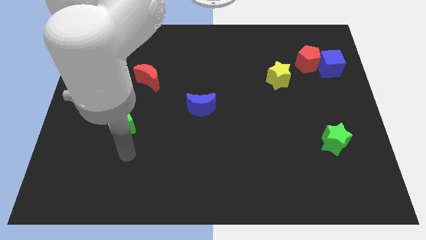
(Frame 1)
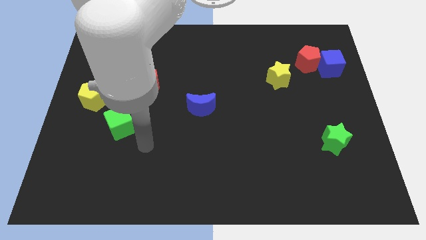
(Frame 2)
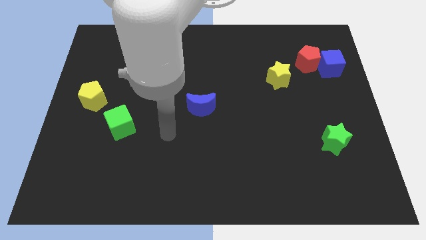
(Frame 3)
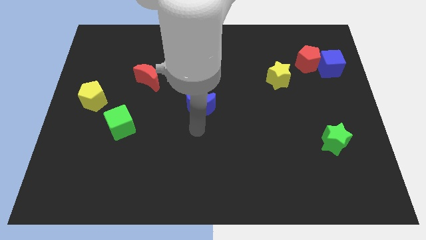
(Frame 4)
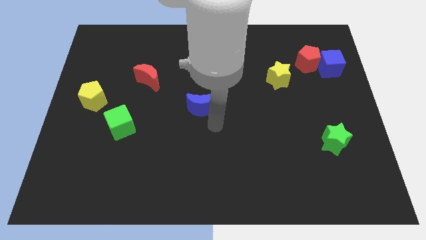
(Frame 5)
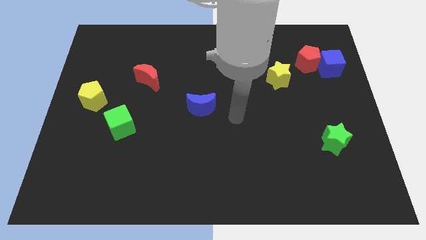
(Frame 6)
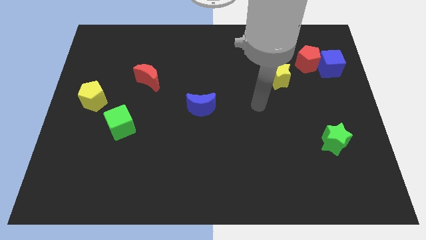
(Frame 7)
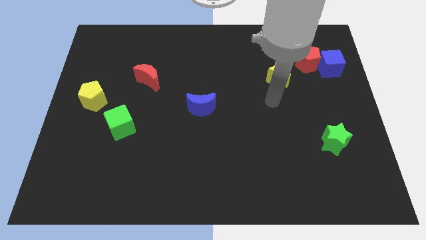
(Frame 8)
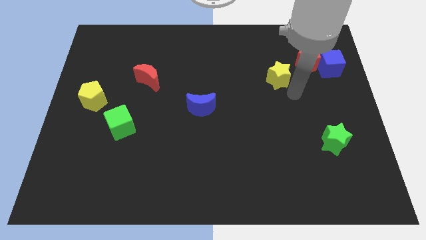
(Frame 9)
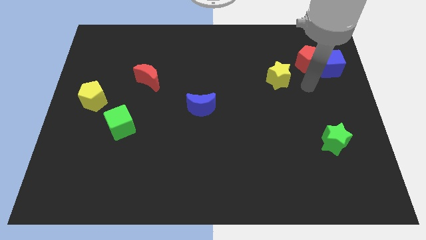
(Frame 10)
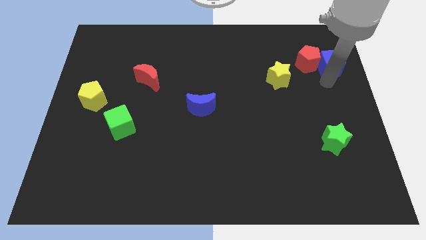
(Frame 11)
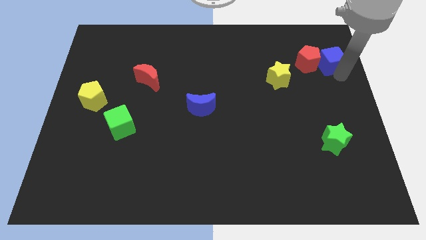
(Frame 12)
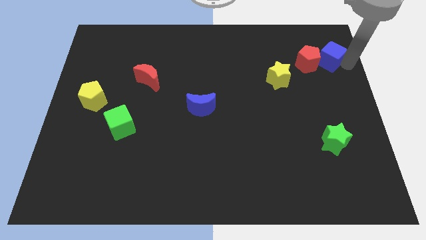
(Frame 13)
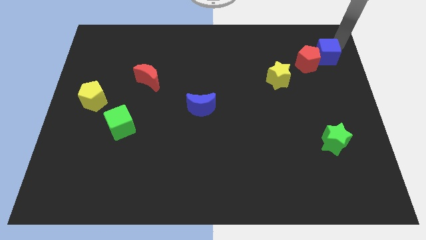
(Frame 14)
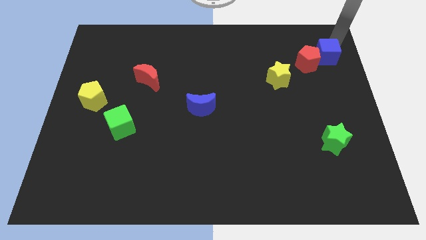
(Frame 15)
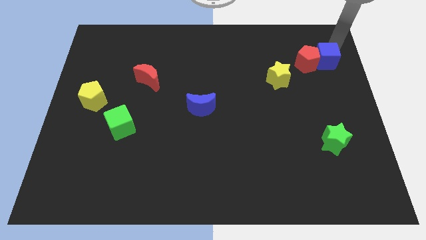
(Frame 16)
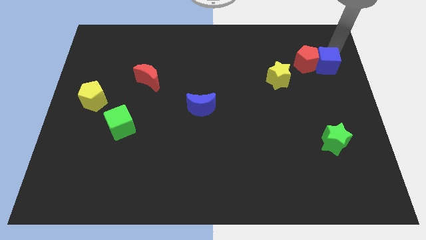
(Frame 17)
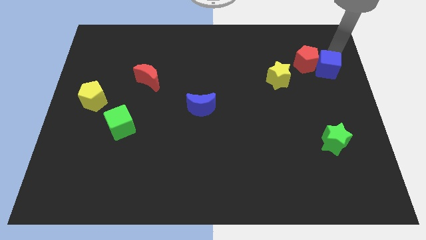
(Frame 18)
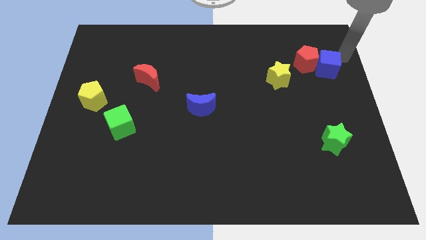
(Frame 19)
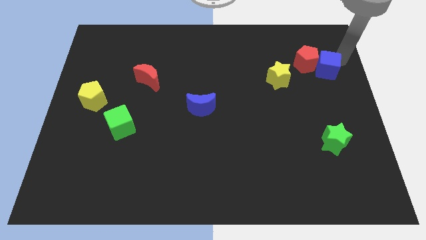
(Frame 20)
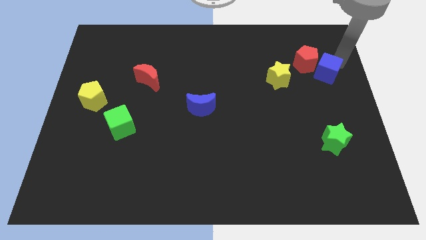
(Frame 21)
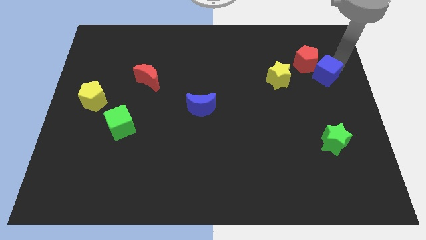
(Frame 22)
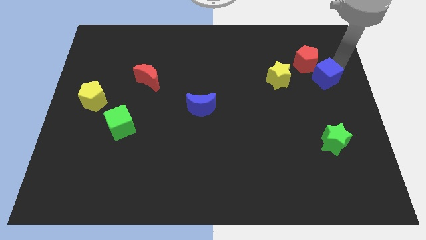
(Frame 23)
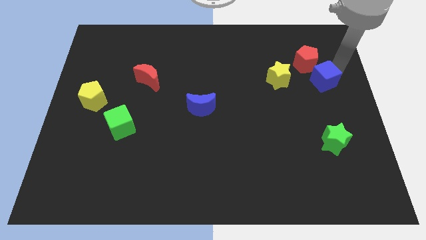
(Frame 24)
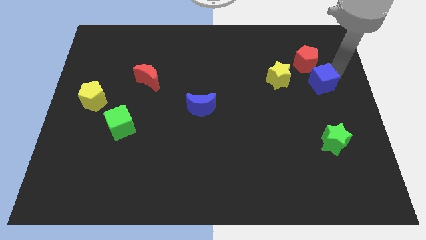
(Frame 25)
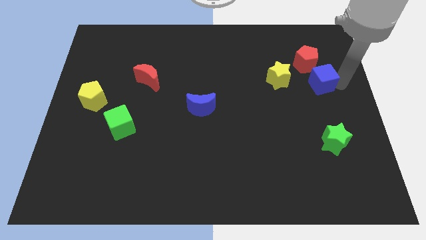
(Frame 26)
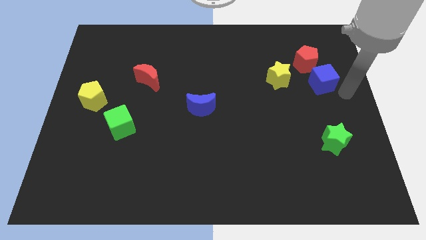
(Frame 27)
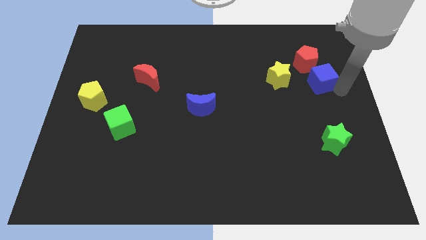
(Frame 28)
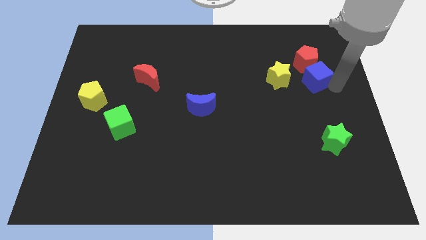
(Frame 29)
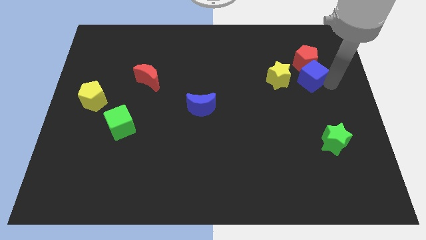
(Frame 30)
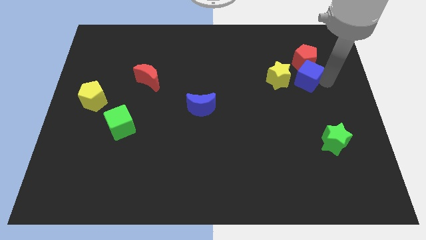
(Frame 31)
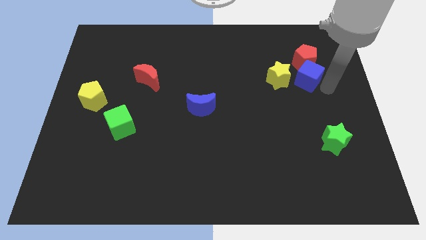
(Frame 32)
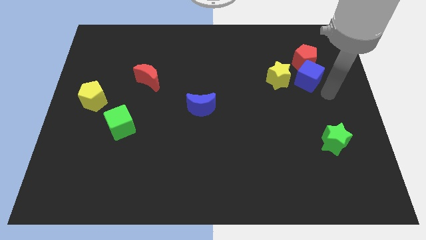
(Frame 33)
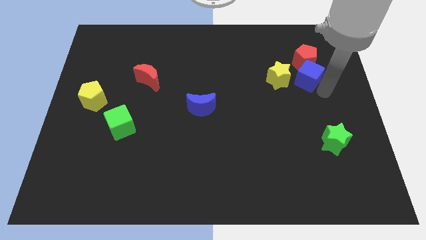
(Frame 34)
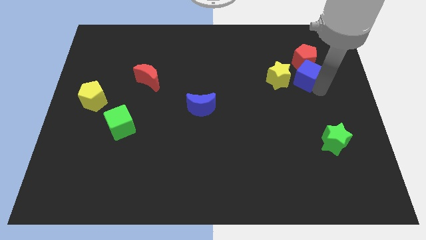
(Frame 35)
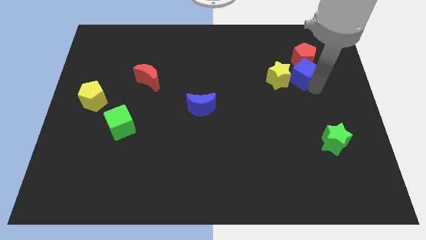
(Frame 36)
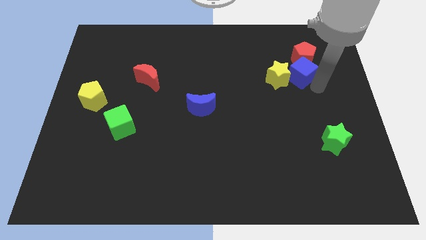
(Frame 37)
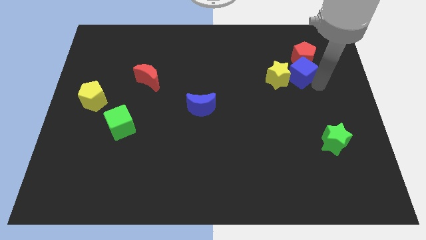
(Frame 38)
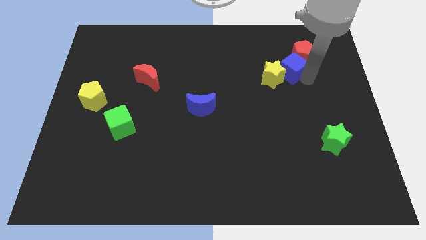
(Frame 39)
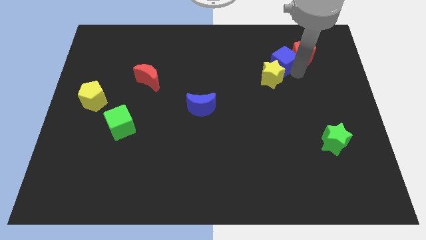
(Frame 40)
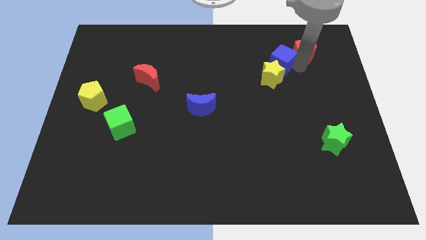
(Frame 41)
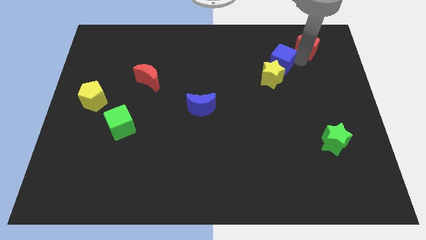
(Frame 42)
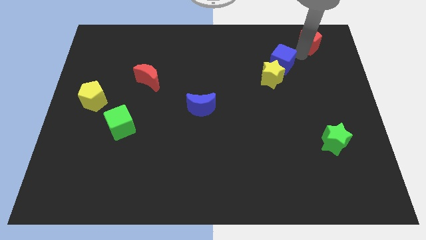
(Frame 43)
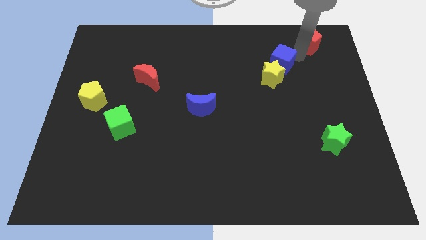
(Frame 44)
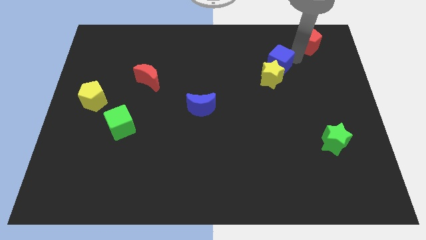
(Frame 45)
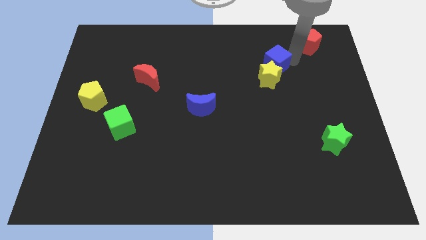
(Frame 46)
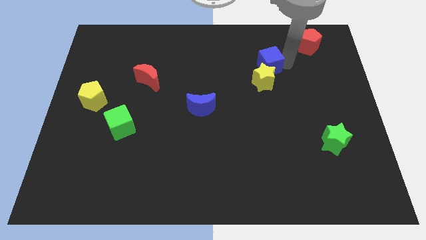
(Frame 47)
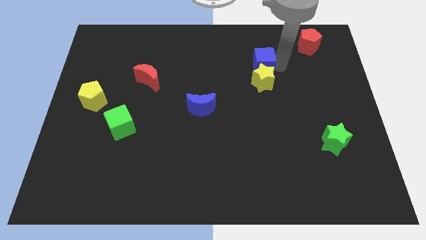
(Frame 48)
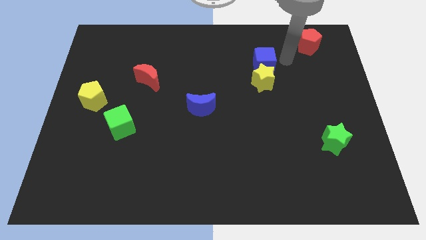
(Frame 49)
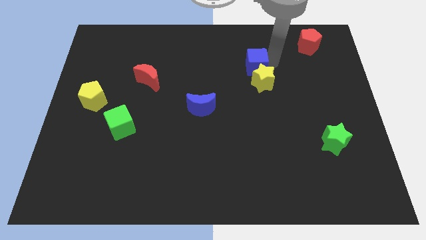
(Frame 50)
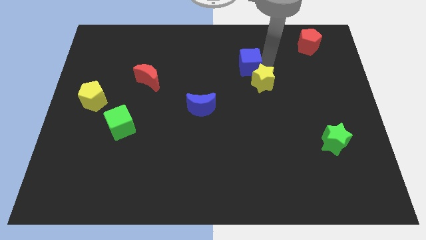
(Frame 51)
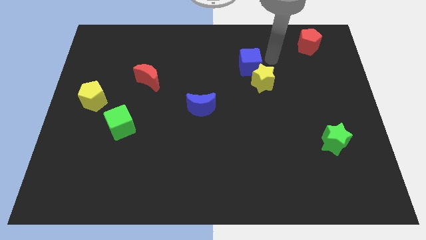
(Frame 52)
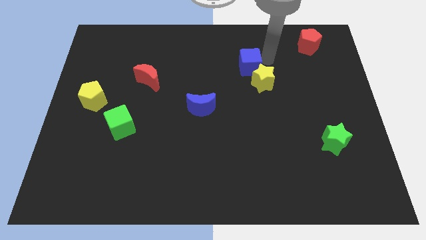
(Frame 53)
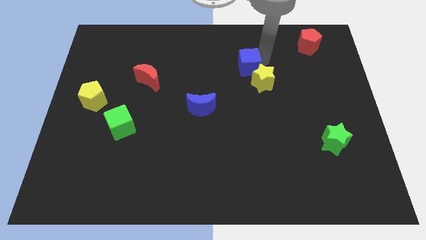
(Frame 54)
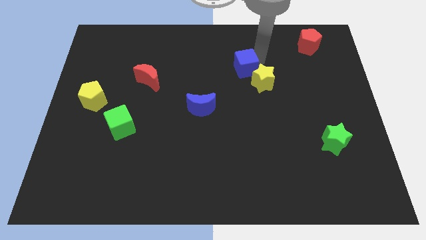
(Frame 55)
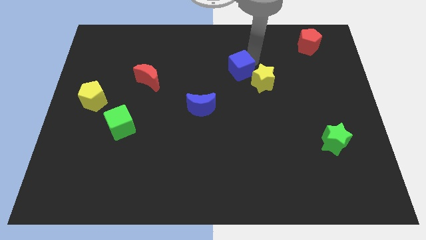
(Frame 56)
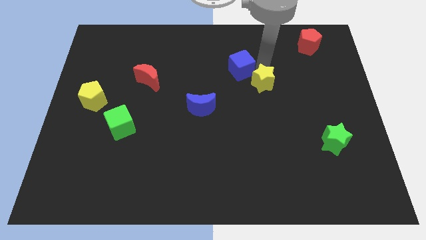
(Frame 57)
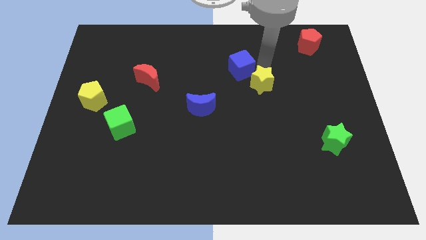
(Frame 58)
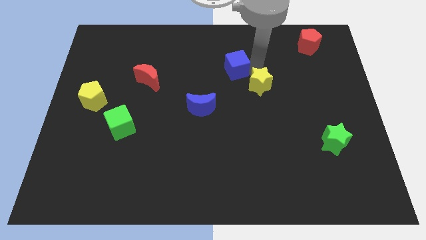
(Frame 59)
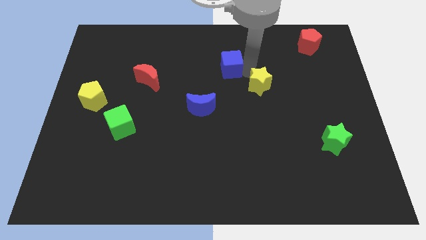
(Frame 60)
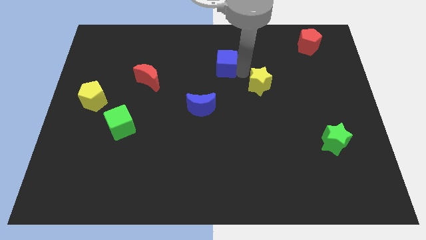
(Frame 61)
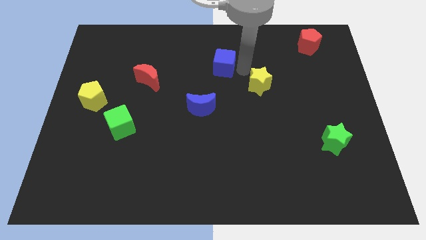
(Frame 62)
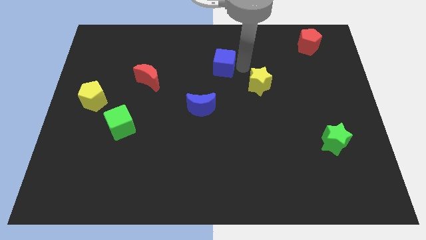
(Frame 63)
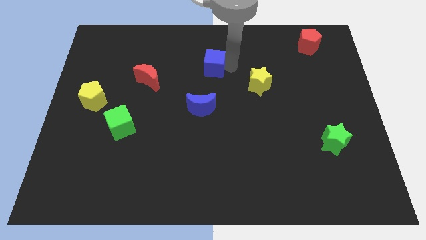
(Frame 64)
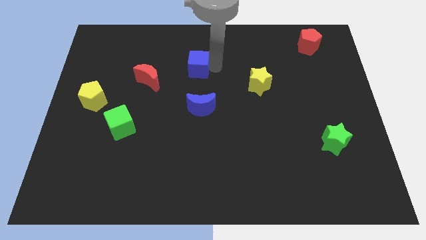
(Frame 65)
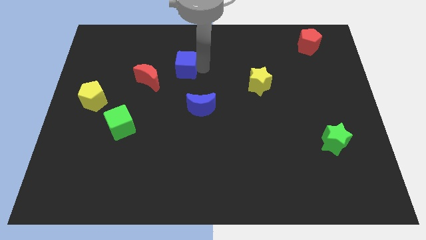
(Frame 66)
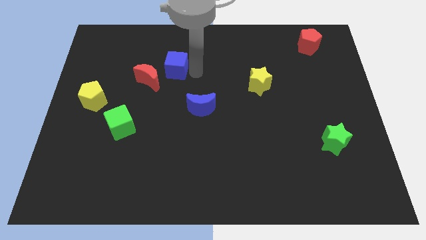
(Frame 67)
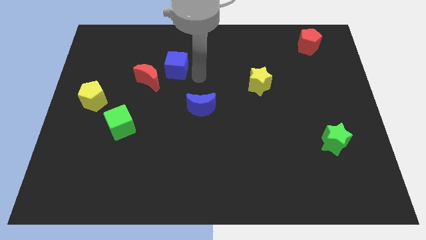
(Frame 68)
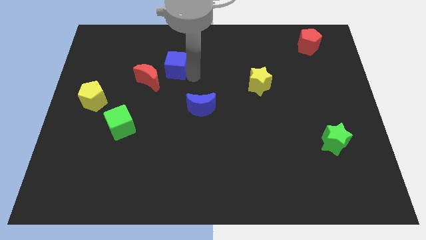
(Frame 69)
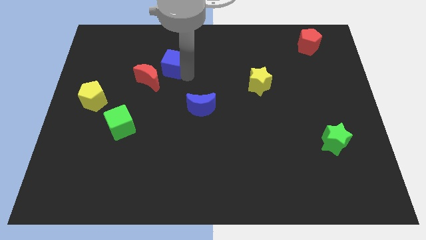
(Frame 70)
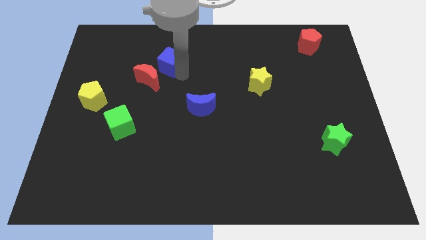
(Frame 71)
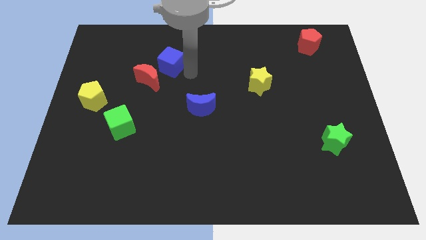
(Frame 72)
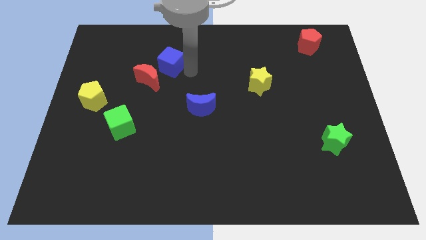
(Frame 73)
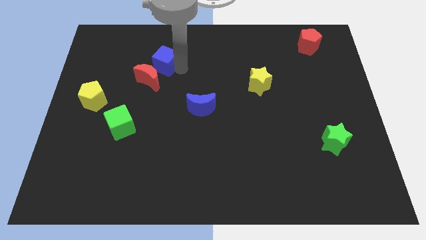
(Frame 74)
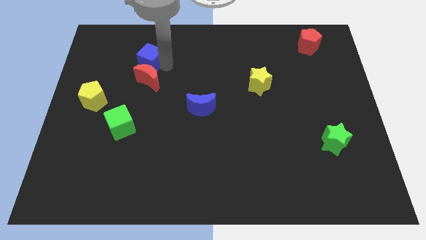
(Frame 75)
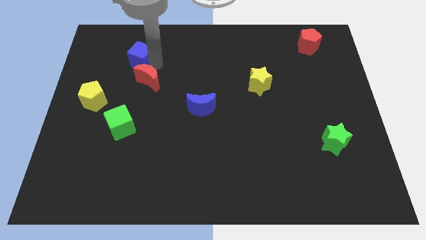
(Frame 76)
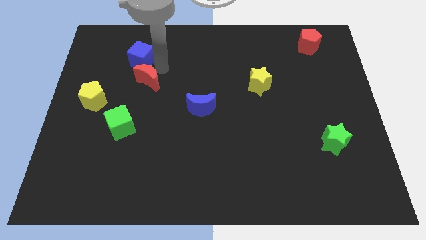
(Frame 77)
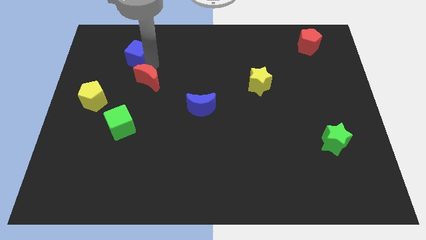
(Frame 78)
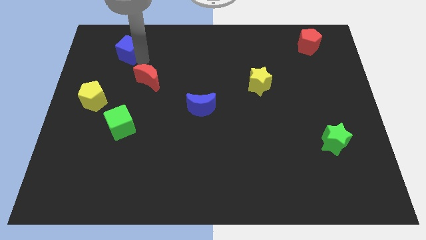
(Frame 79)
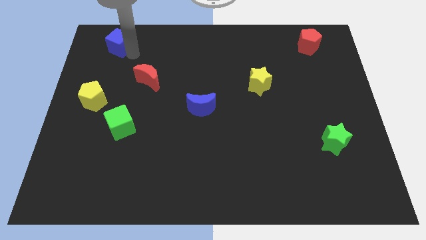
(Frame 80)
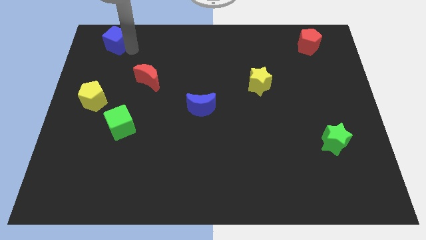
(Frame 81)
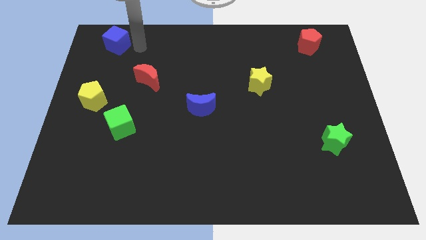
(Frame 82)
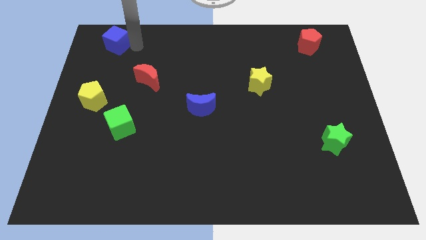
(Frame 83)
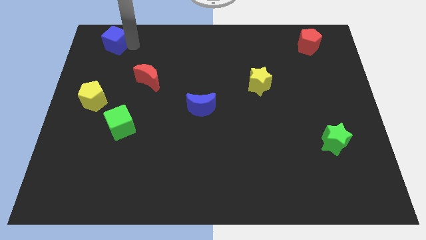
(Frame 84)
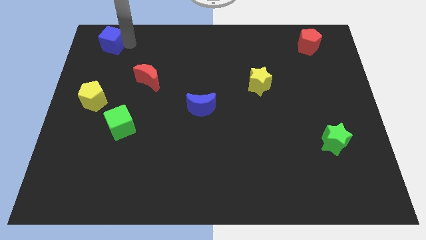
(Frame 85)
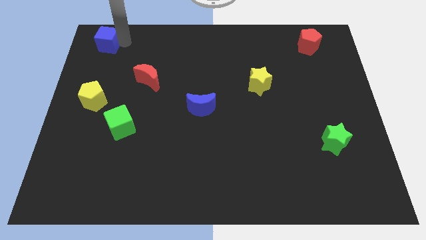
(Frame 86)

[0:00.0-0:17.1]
move the blue cube to the top left of the board
